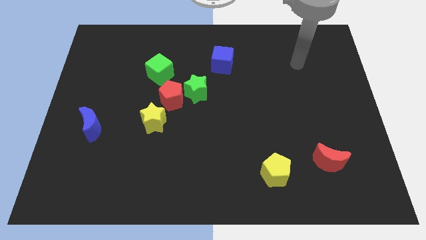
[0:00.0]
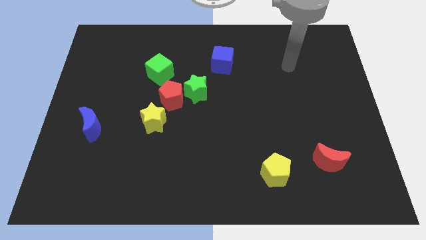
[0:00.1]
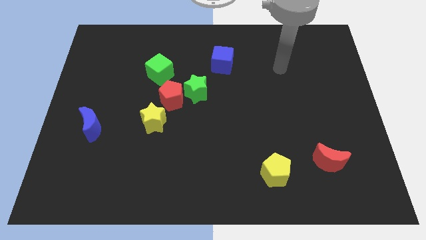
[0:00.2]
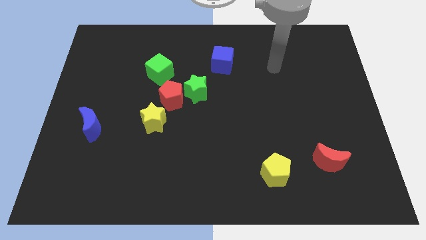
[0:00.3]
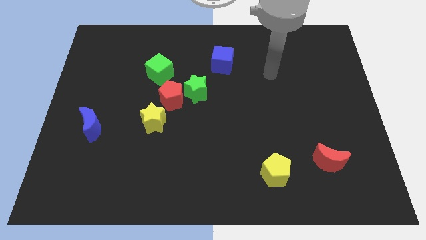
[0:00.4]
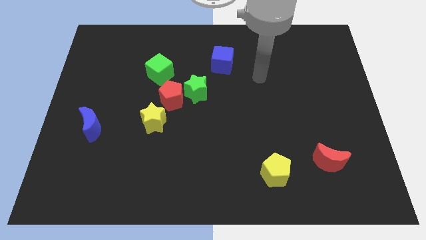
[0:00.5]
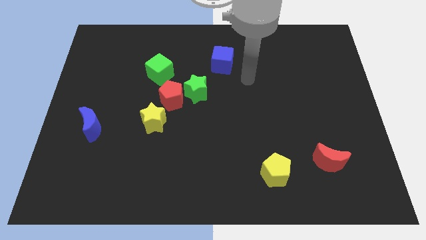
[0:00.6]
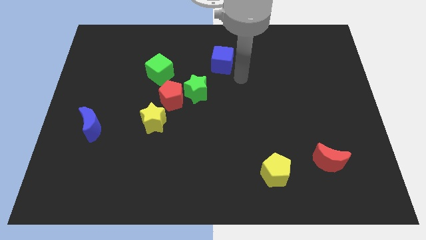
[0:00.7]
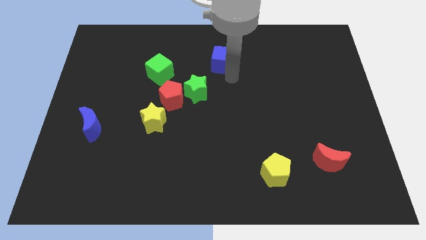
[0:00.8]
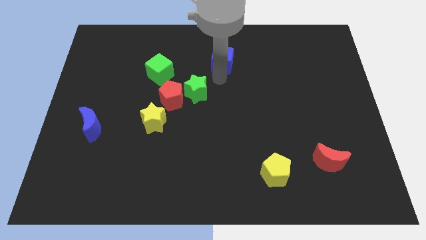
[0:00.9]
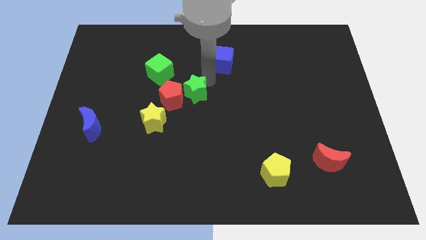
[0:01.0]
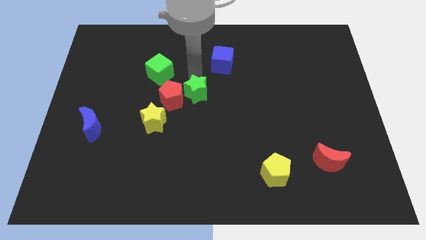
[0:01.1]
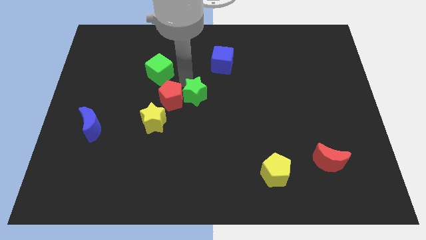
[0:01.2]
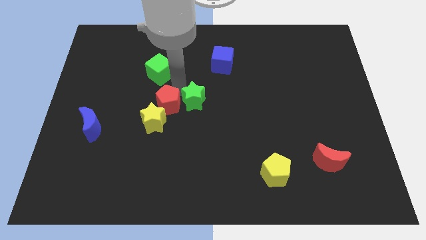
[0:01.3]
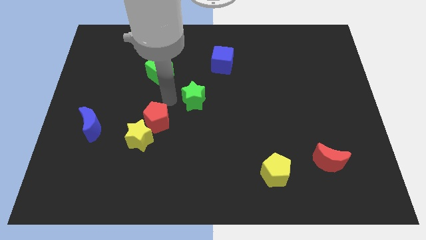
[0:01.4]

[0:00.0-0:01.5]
separate the green star from the red pentagon

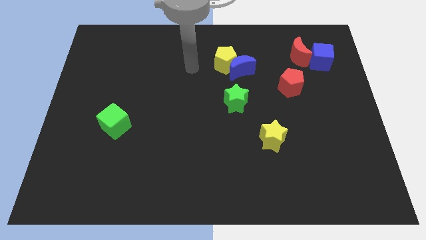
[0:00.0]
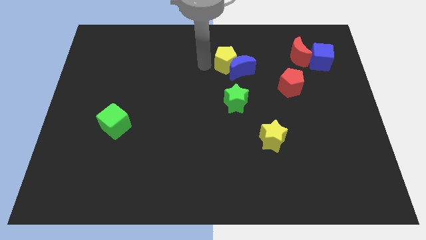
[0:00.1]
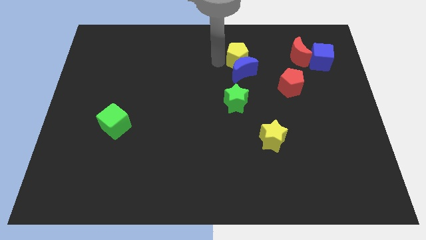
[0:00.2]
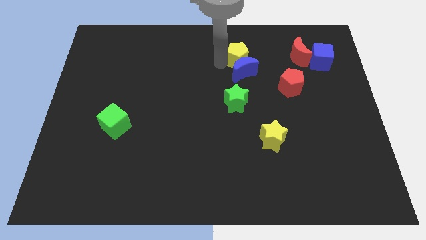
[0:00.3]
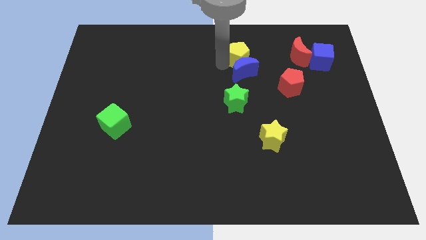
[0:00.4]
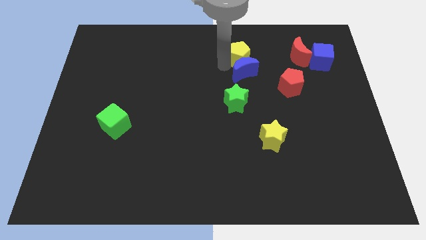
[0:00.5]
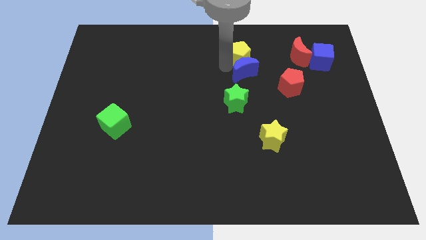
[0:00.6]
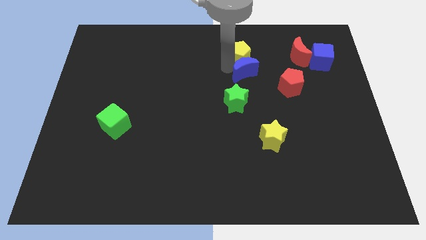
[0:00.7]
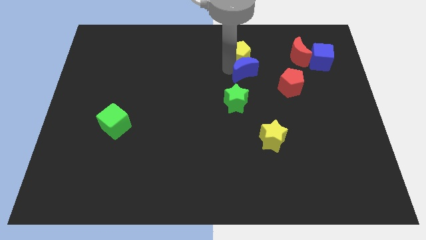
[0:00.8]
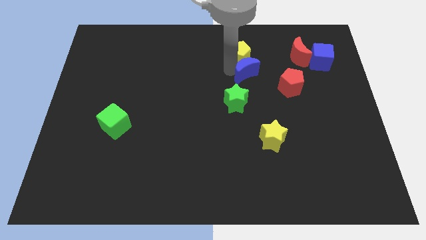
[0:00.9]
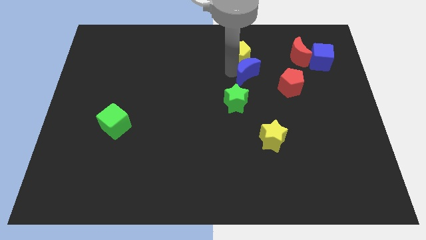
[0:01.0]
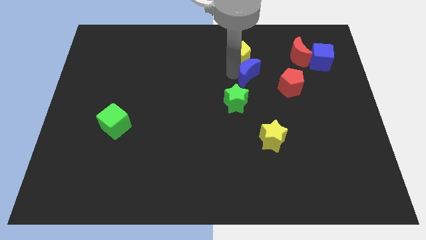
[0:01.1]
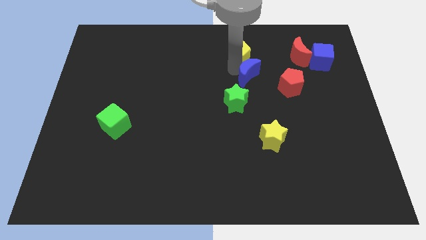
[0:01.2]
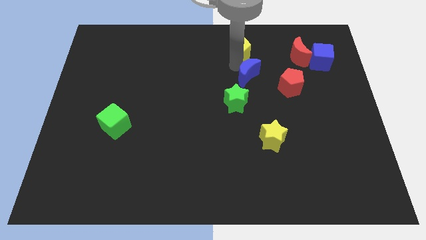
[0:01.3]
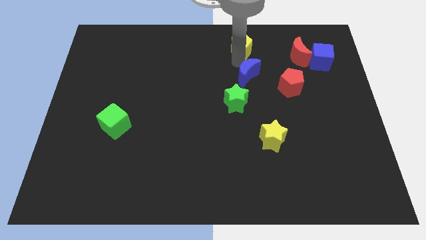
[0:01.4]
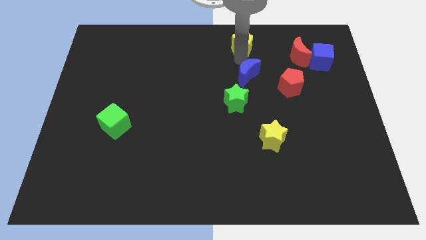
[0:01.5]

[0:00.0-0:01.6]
separate the blue moon from the yellow pentagon

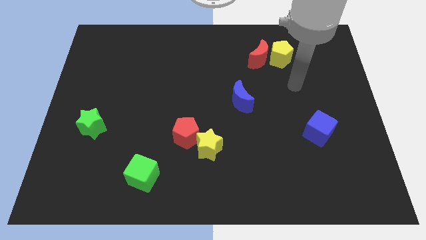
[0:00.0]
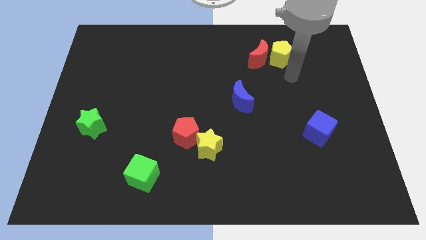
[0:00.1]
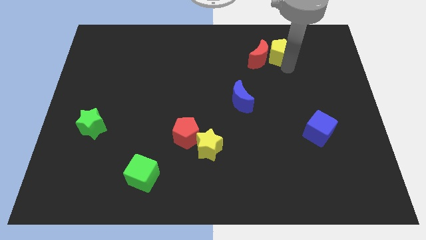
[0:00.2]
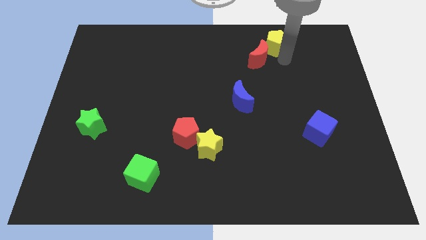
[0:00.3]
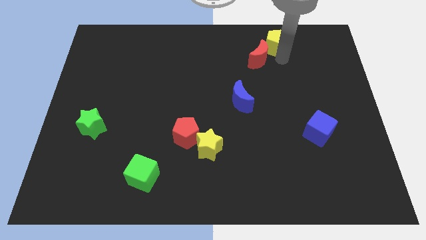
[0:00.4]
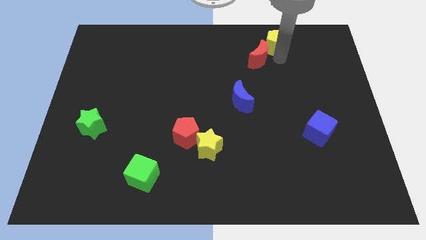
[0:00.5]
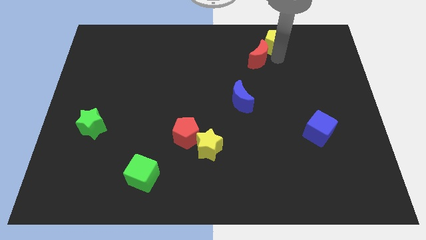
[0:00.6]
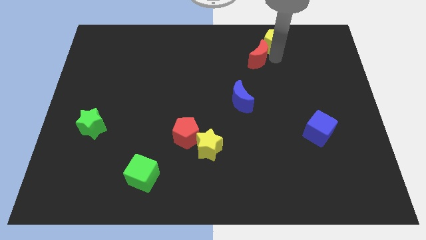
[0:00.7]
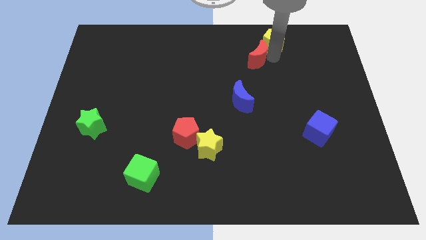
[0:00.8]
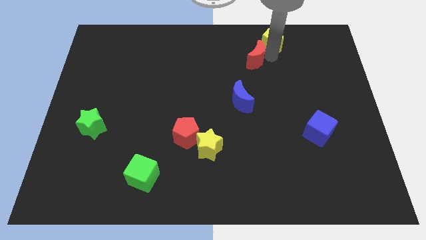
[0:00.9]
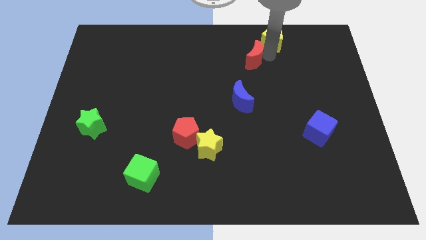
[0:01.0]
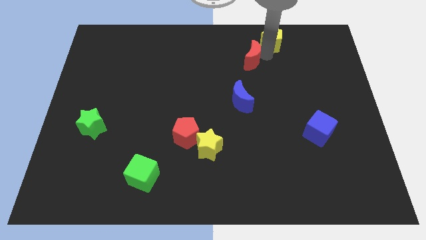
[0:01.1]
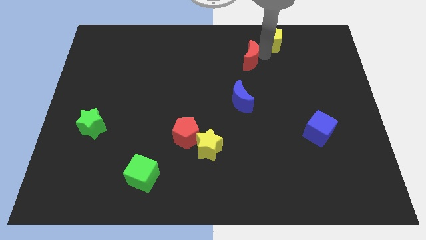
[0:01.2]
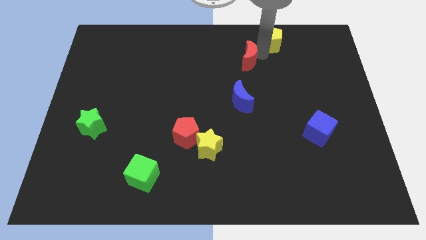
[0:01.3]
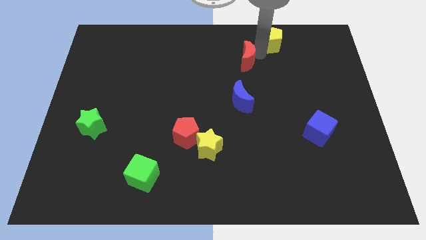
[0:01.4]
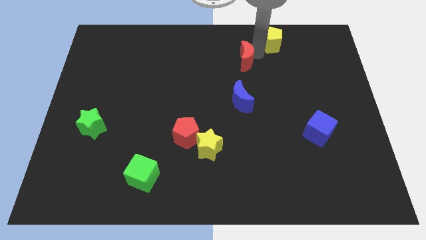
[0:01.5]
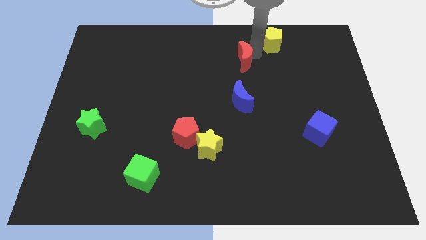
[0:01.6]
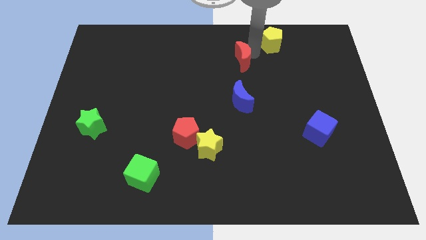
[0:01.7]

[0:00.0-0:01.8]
pull the red moon apart from the yellow pentagon

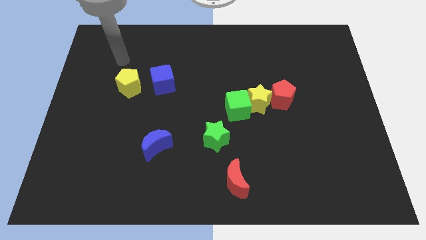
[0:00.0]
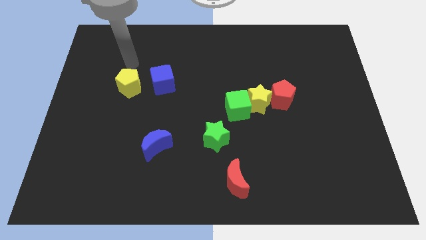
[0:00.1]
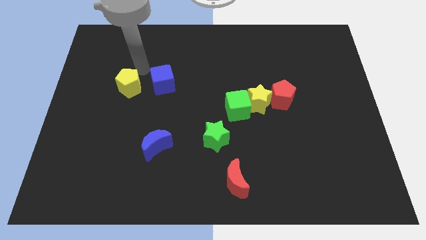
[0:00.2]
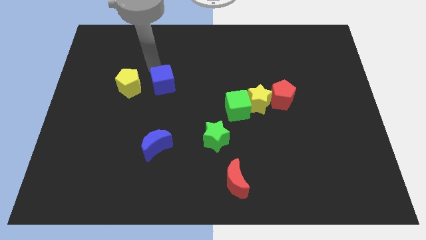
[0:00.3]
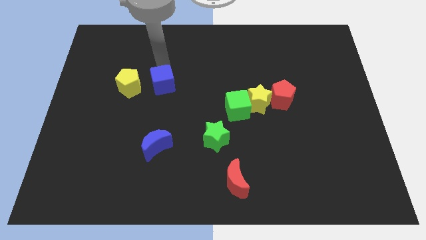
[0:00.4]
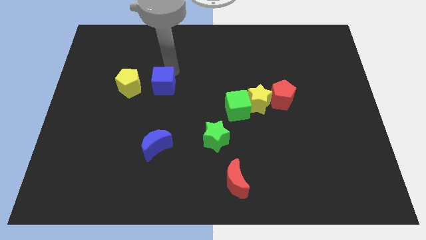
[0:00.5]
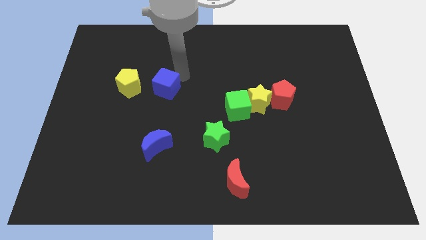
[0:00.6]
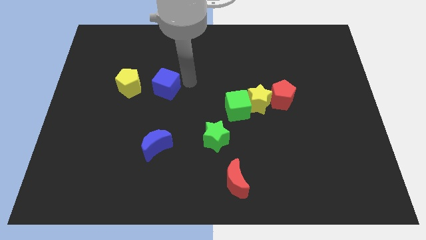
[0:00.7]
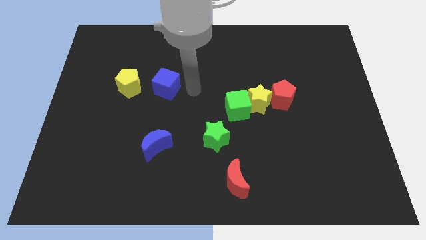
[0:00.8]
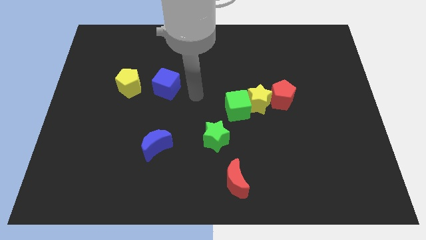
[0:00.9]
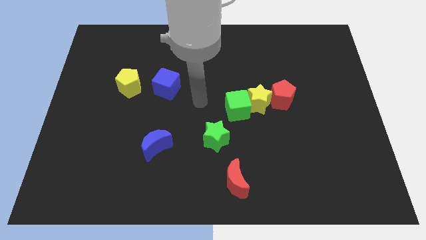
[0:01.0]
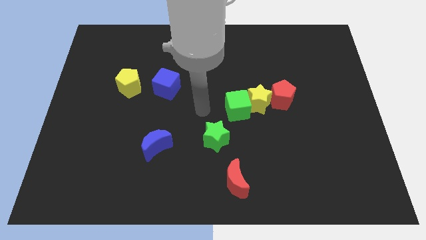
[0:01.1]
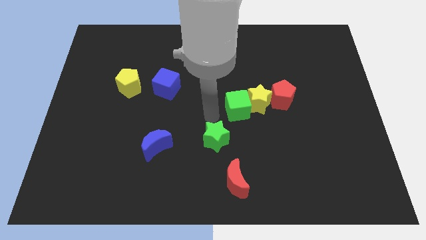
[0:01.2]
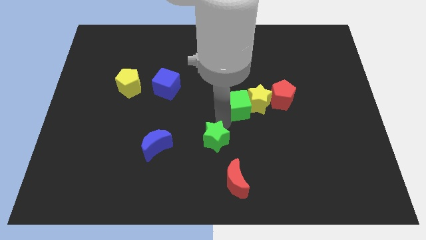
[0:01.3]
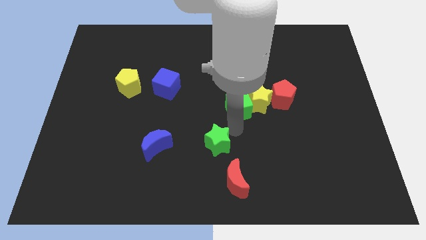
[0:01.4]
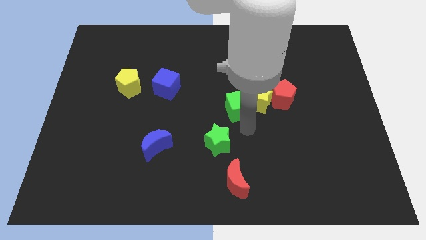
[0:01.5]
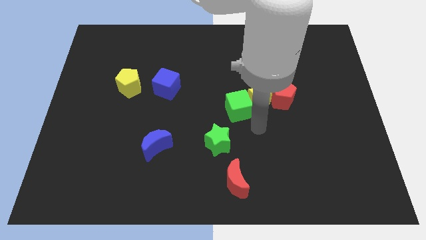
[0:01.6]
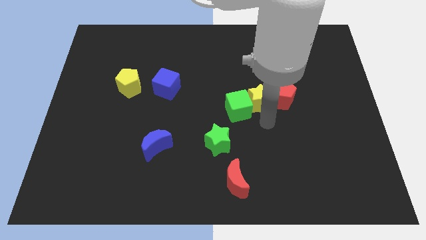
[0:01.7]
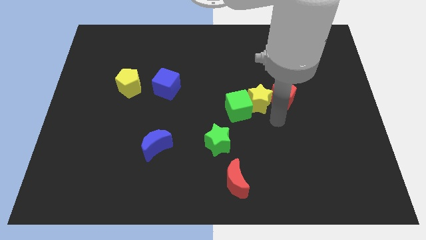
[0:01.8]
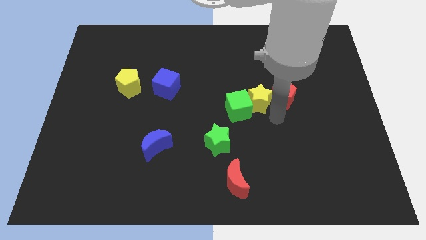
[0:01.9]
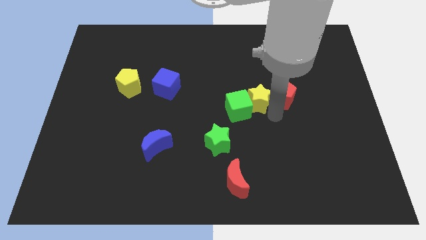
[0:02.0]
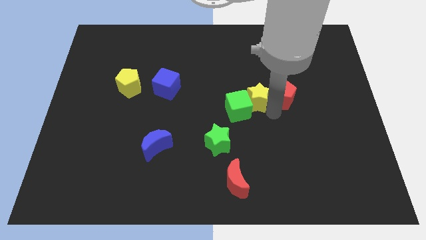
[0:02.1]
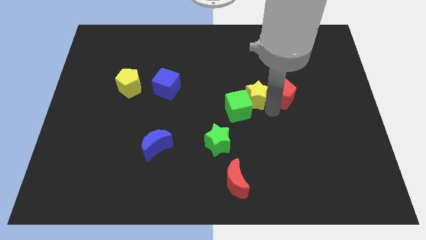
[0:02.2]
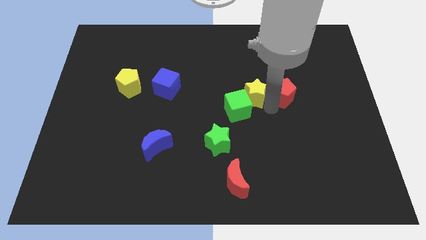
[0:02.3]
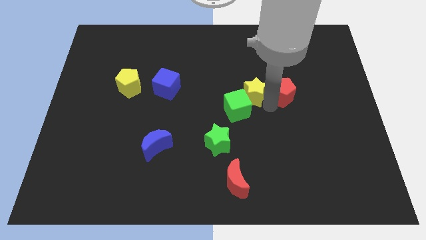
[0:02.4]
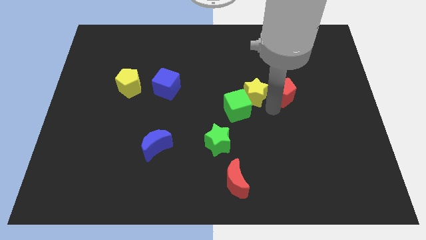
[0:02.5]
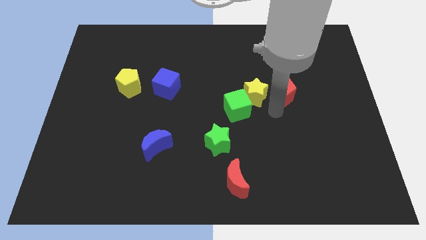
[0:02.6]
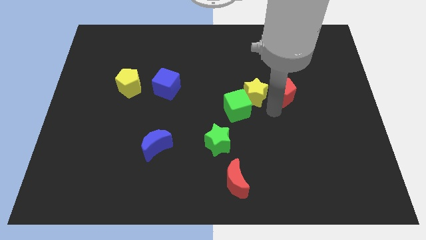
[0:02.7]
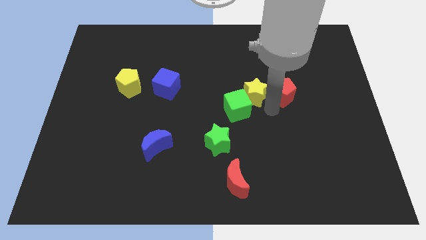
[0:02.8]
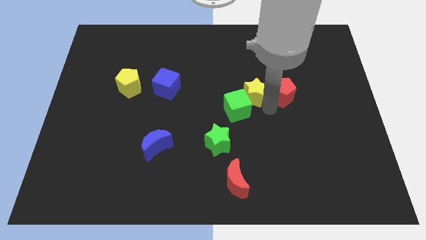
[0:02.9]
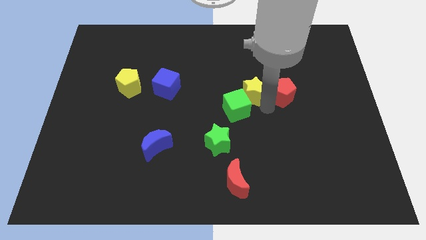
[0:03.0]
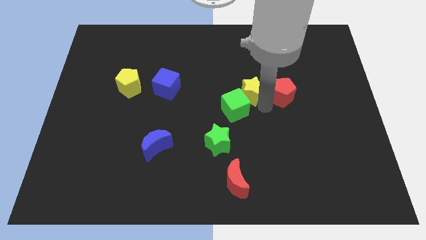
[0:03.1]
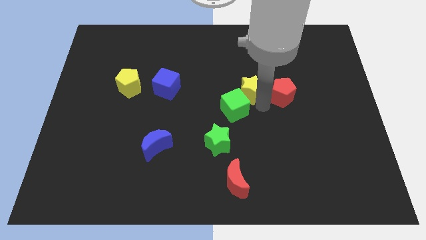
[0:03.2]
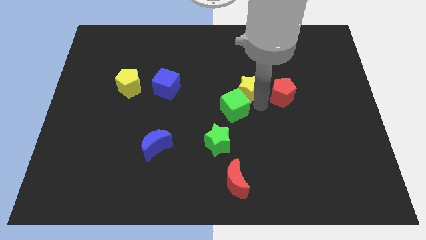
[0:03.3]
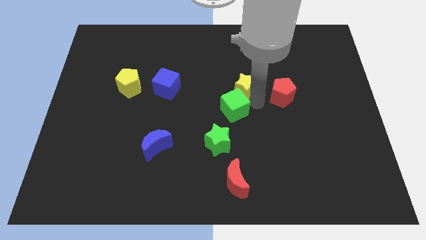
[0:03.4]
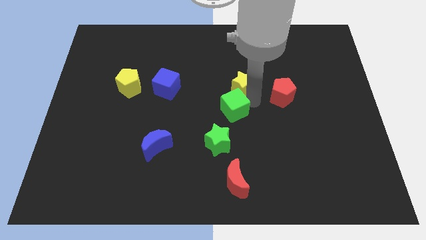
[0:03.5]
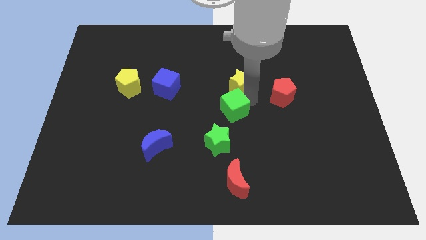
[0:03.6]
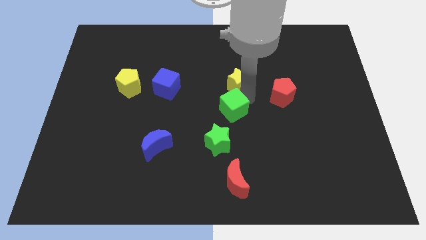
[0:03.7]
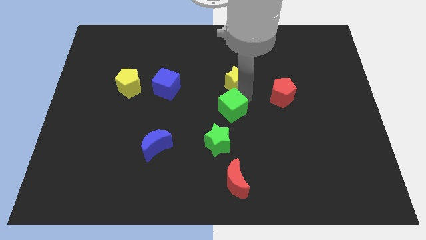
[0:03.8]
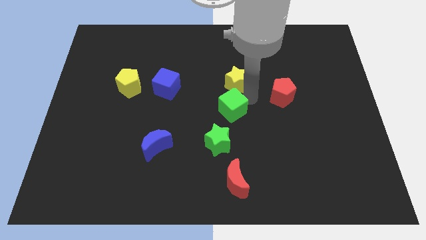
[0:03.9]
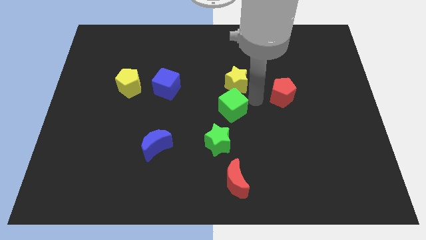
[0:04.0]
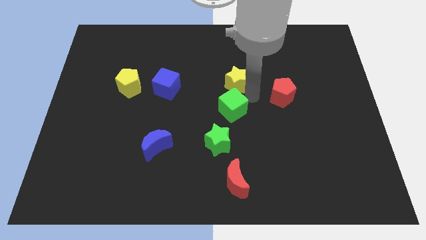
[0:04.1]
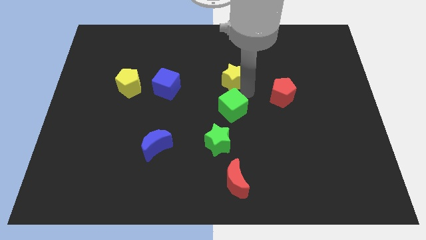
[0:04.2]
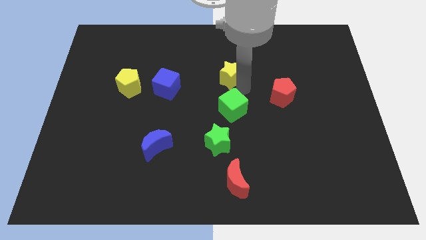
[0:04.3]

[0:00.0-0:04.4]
pull the yellow star apart from the green cube and red pentagon

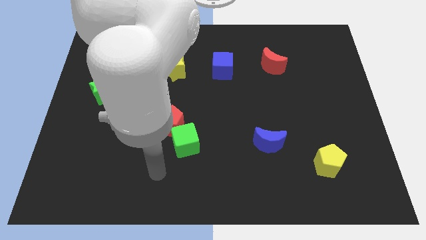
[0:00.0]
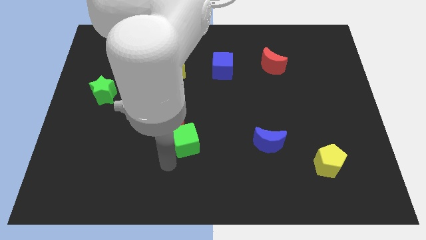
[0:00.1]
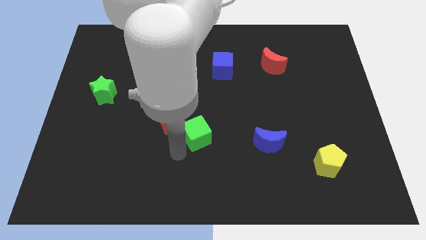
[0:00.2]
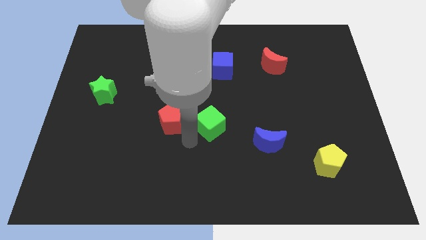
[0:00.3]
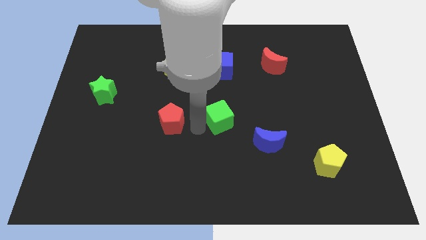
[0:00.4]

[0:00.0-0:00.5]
separate the red pentagon from the green cube
